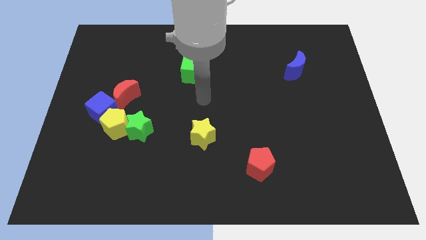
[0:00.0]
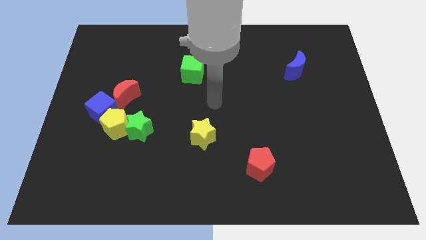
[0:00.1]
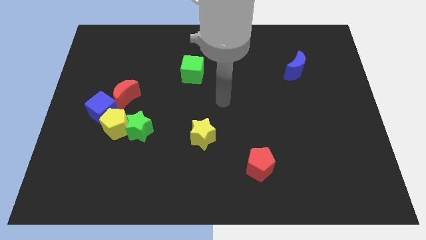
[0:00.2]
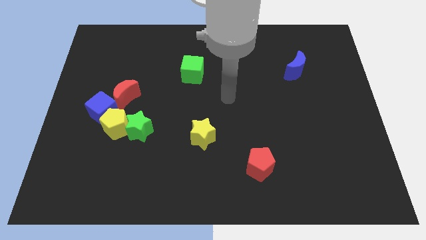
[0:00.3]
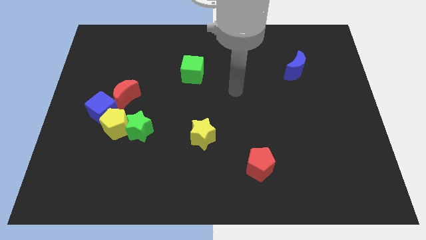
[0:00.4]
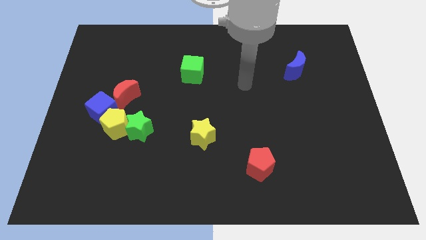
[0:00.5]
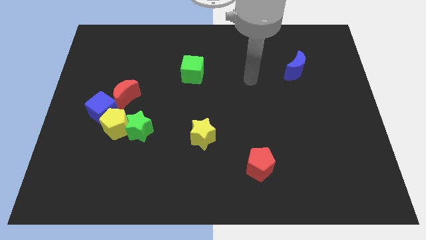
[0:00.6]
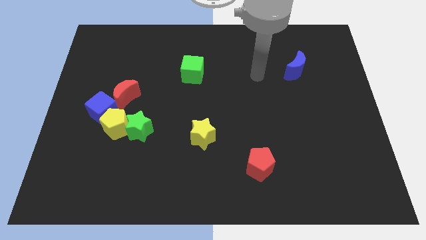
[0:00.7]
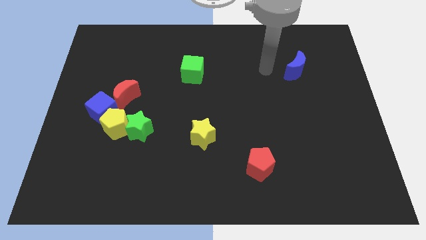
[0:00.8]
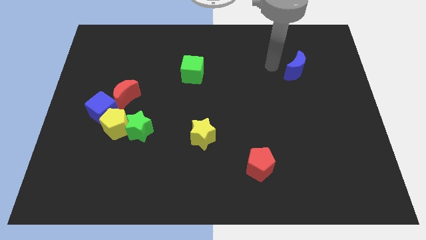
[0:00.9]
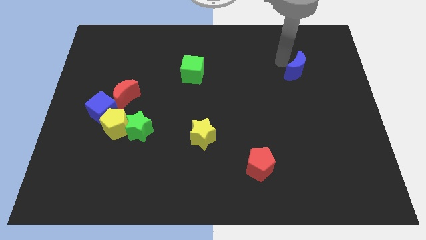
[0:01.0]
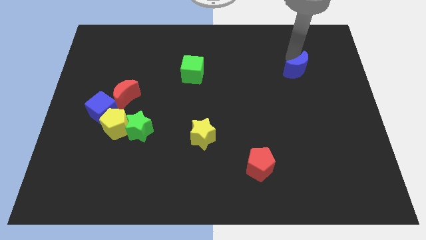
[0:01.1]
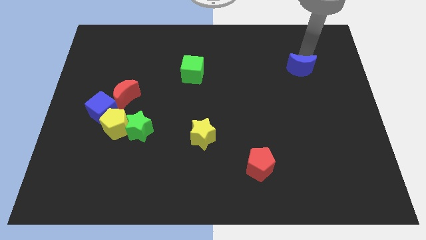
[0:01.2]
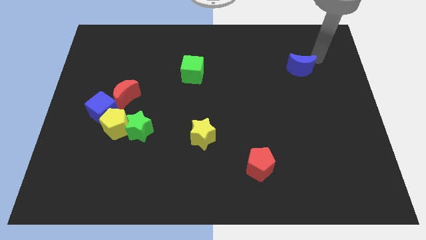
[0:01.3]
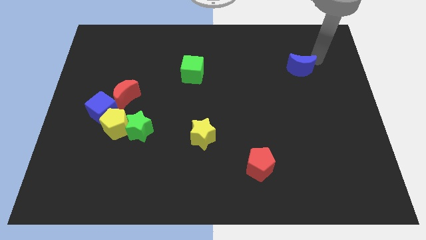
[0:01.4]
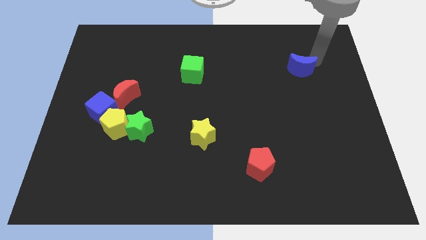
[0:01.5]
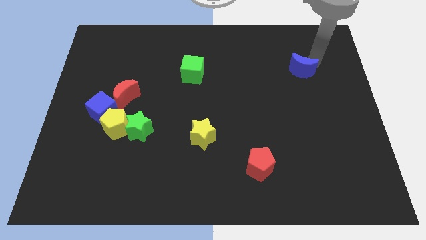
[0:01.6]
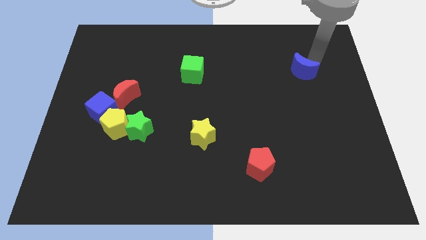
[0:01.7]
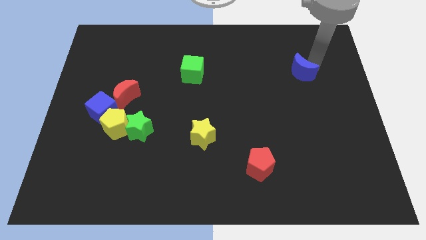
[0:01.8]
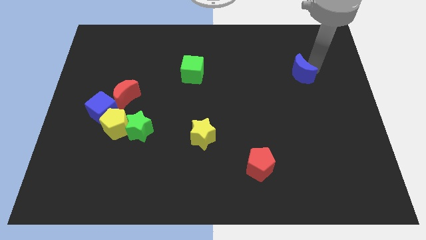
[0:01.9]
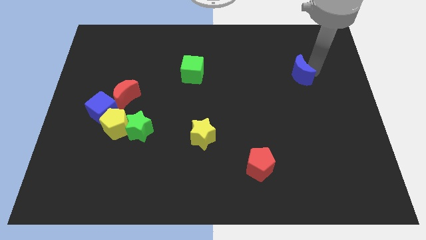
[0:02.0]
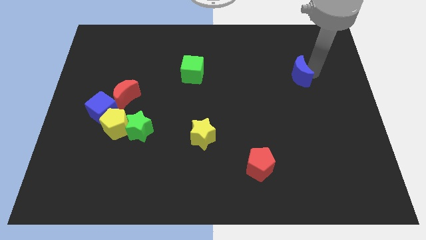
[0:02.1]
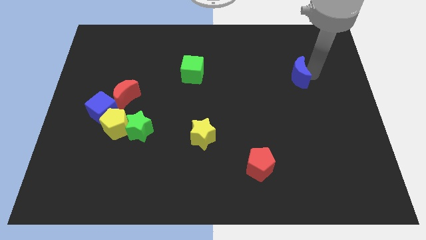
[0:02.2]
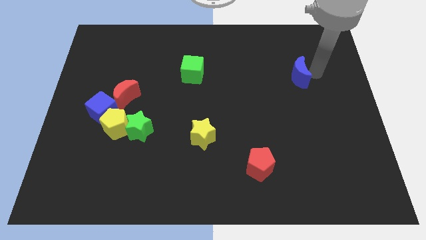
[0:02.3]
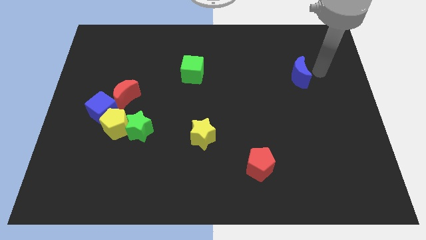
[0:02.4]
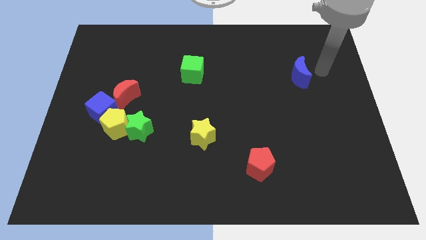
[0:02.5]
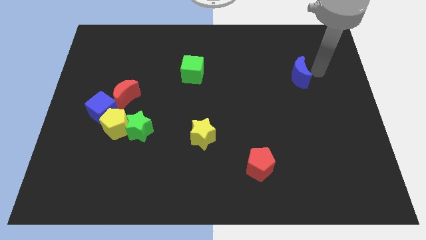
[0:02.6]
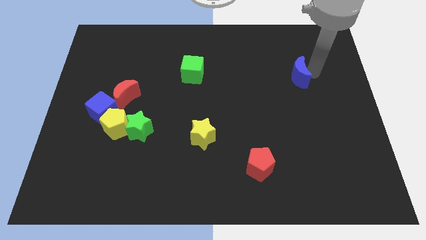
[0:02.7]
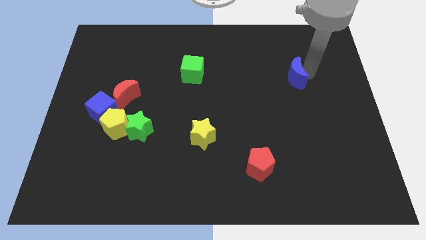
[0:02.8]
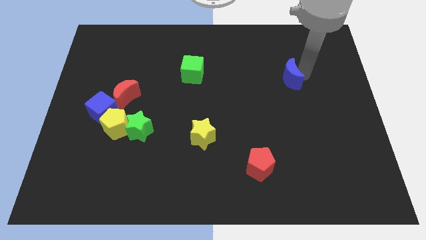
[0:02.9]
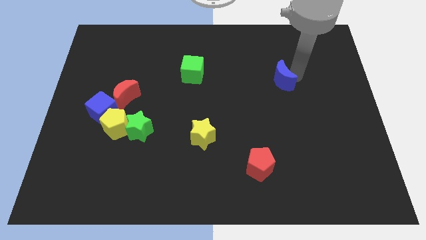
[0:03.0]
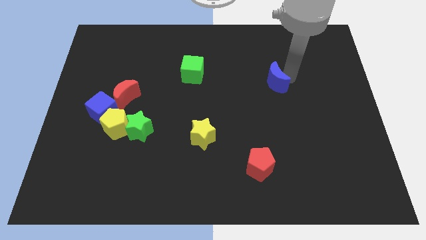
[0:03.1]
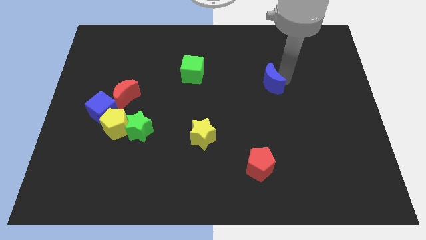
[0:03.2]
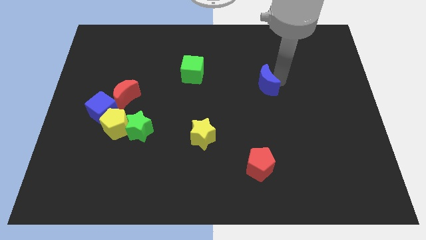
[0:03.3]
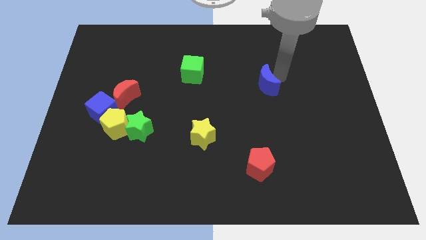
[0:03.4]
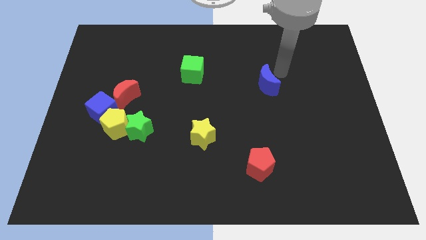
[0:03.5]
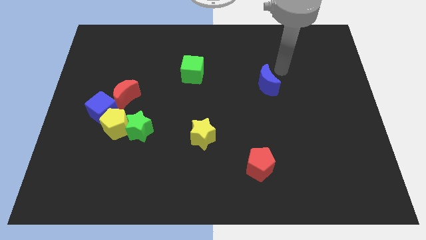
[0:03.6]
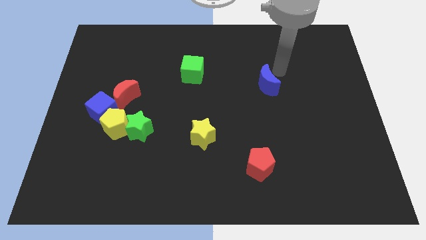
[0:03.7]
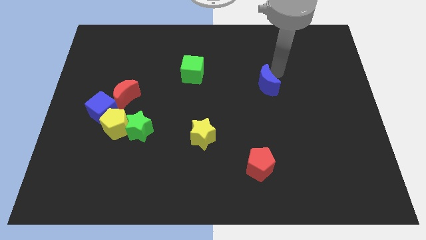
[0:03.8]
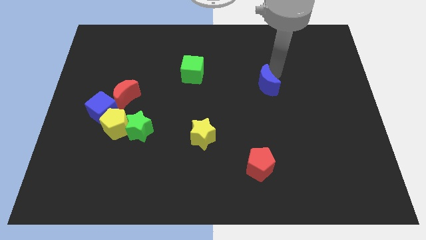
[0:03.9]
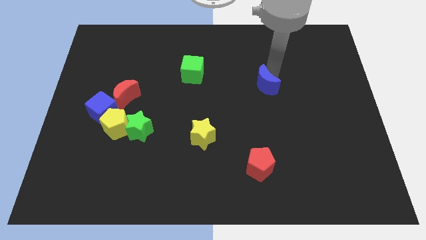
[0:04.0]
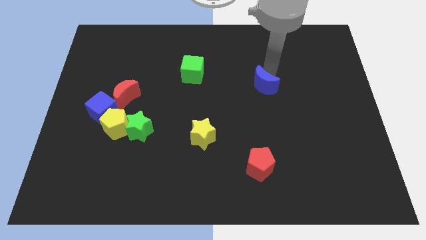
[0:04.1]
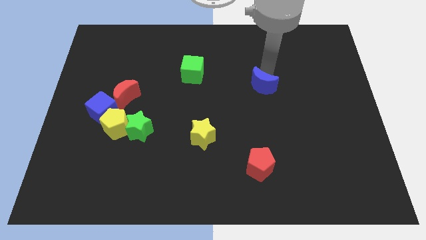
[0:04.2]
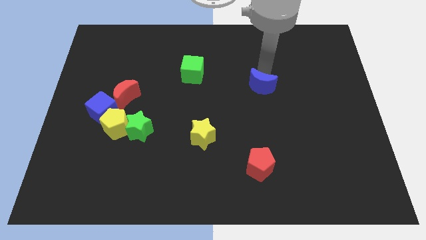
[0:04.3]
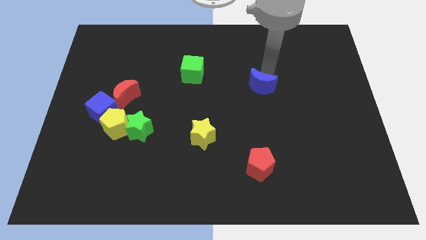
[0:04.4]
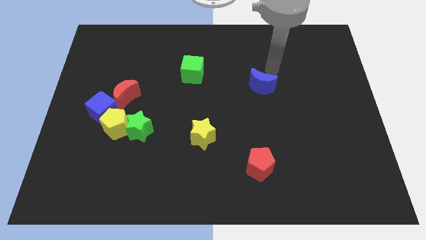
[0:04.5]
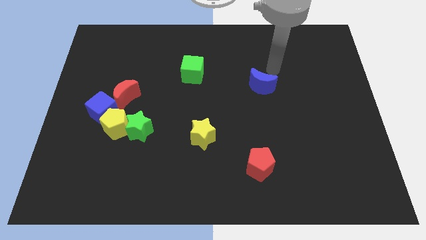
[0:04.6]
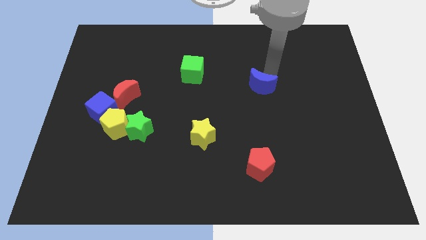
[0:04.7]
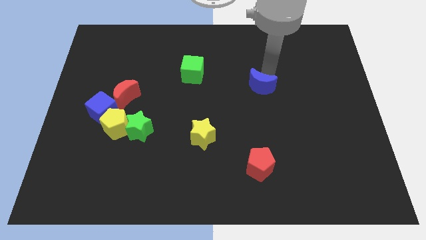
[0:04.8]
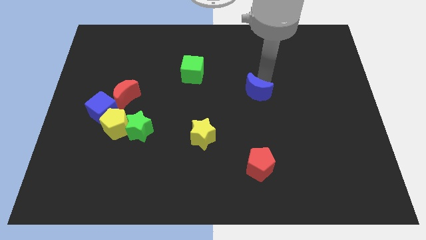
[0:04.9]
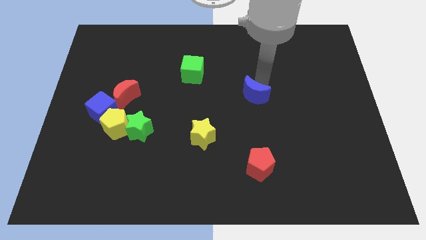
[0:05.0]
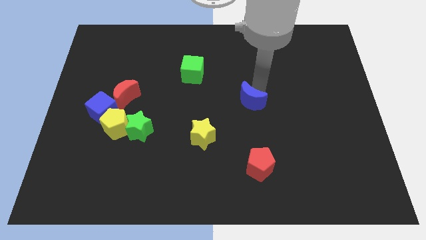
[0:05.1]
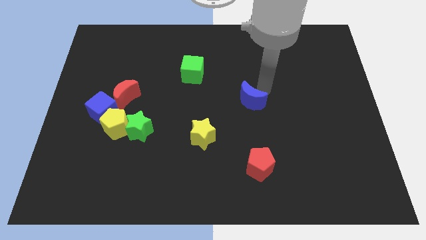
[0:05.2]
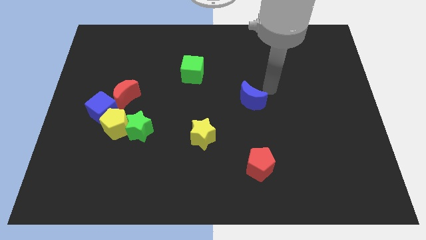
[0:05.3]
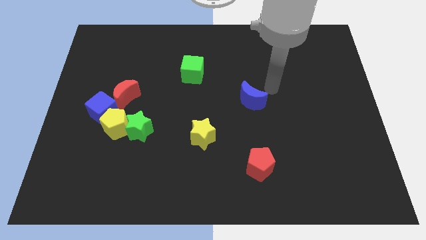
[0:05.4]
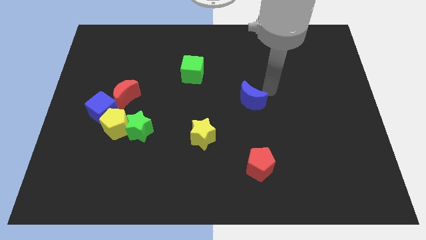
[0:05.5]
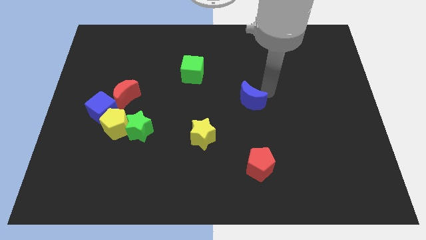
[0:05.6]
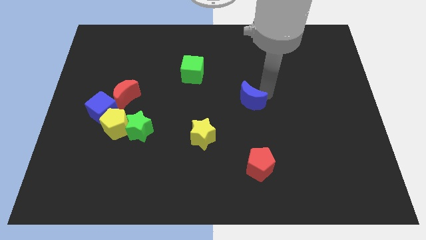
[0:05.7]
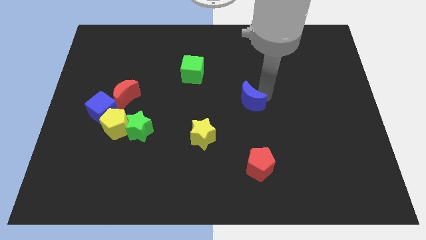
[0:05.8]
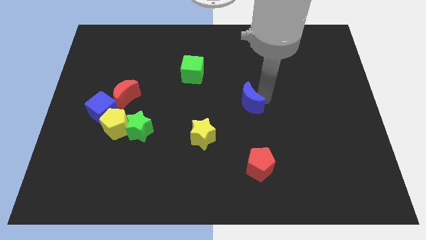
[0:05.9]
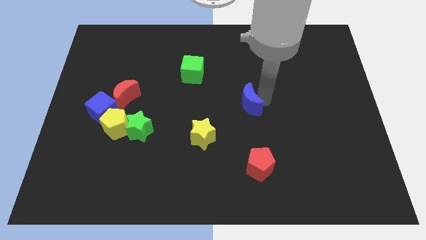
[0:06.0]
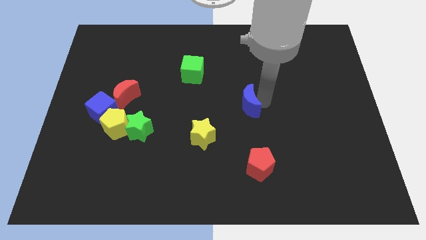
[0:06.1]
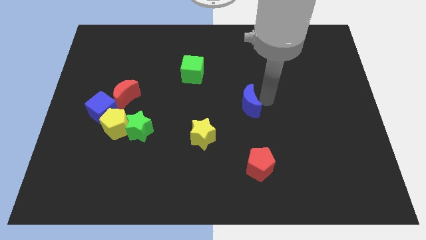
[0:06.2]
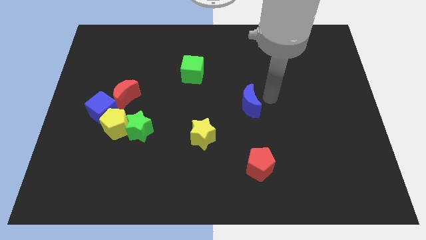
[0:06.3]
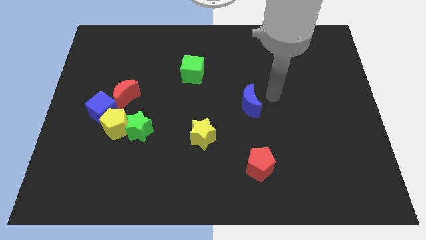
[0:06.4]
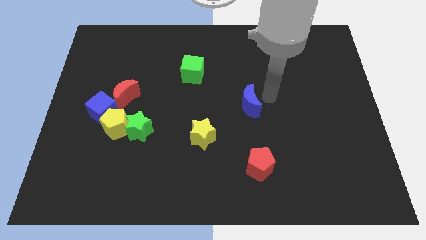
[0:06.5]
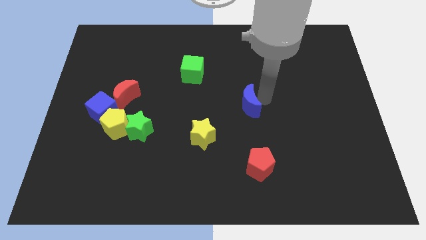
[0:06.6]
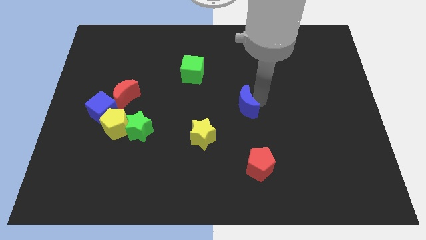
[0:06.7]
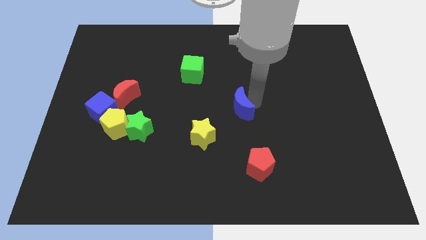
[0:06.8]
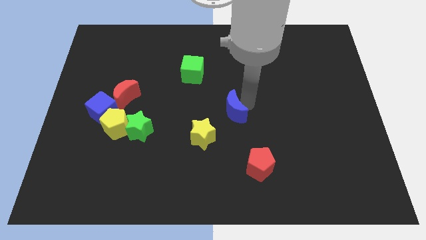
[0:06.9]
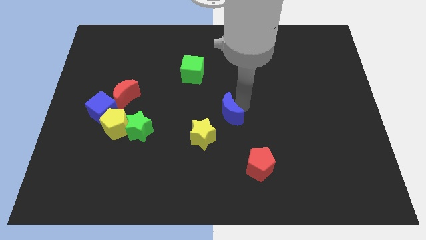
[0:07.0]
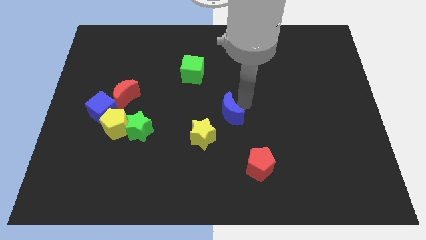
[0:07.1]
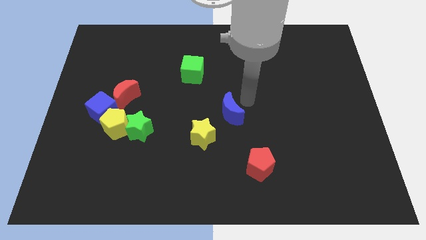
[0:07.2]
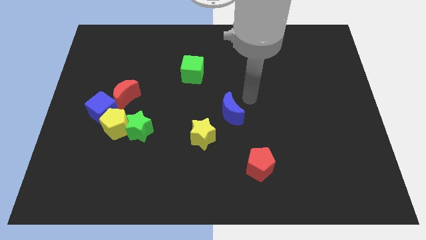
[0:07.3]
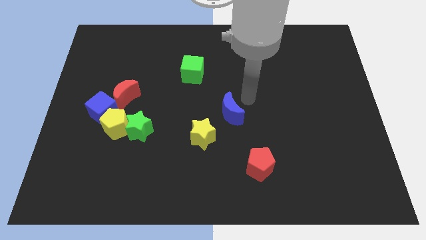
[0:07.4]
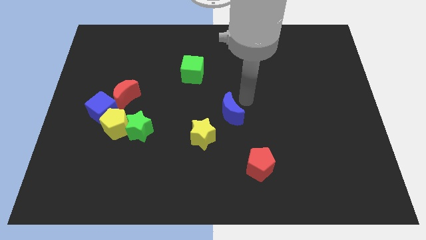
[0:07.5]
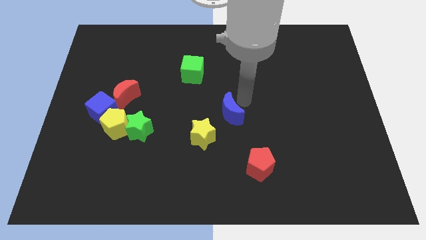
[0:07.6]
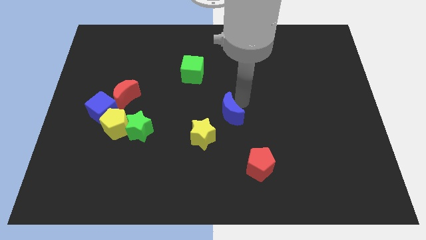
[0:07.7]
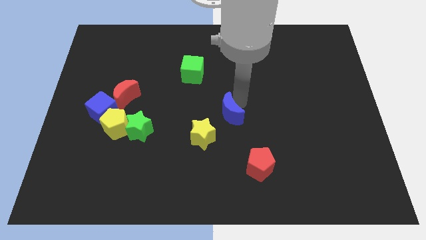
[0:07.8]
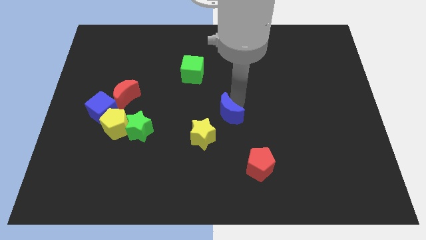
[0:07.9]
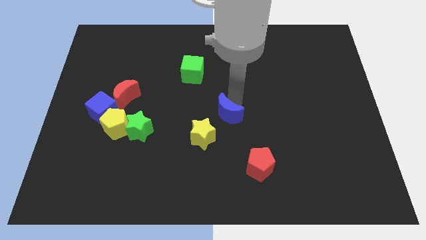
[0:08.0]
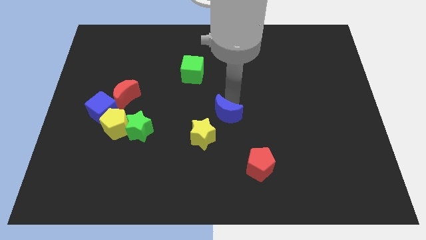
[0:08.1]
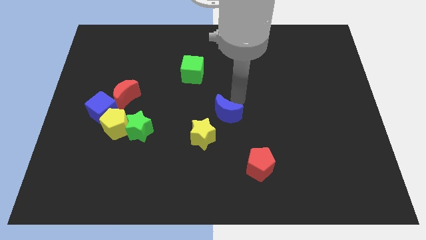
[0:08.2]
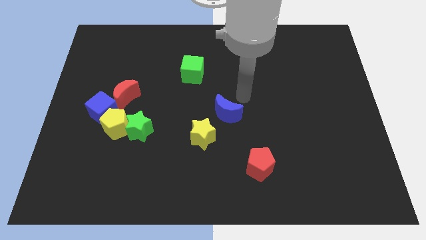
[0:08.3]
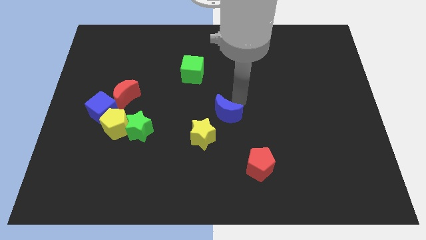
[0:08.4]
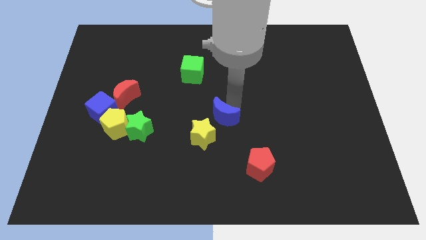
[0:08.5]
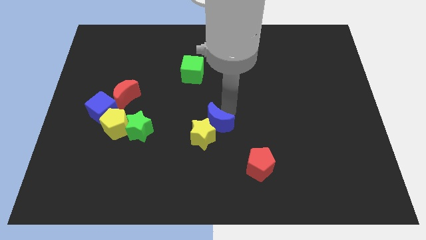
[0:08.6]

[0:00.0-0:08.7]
slide the blue moon next to the yellow star
